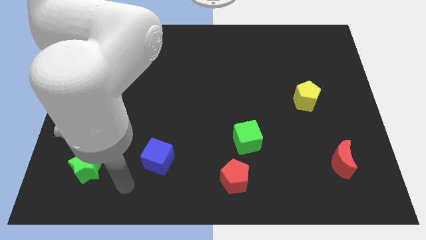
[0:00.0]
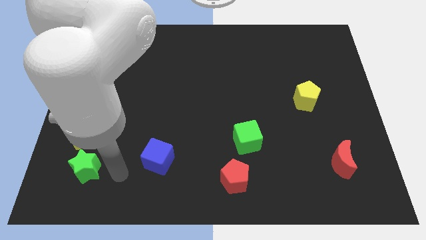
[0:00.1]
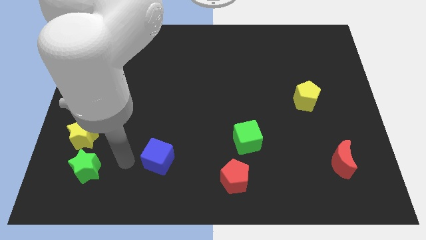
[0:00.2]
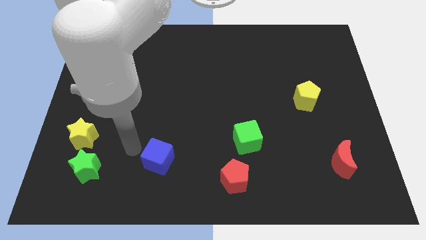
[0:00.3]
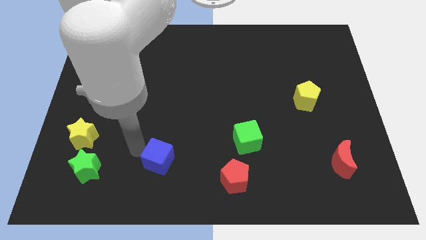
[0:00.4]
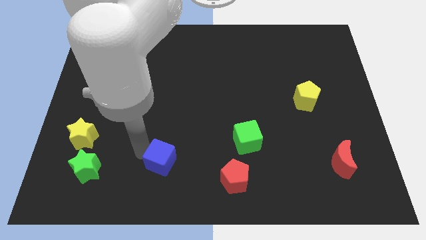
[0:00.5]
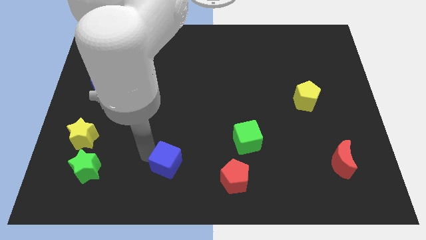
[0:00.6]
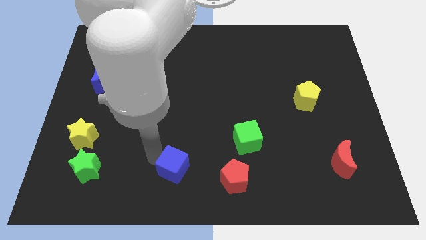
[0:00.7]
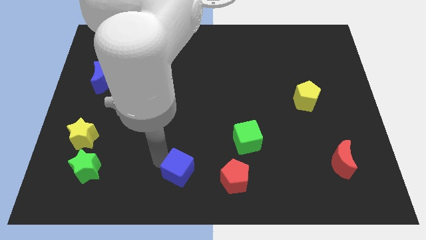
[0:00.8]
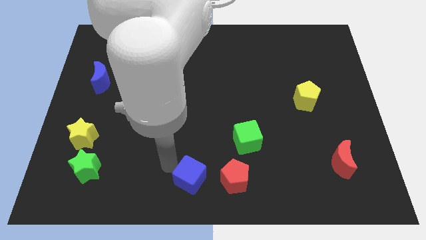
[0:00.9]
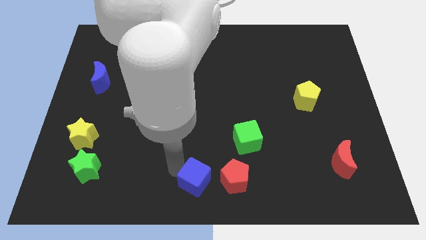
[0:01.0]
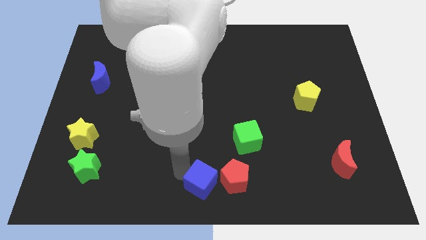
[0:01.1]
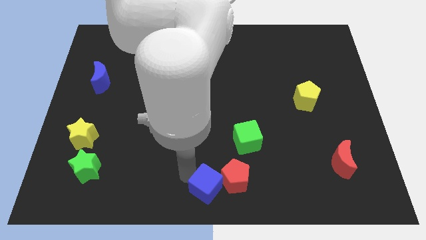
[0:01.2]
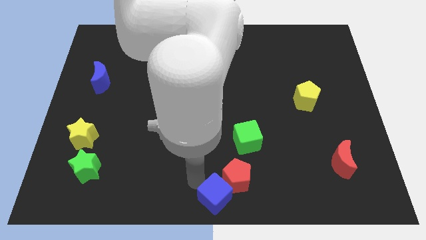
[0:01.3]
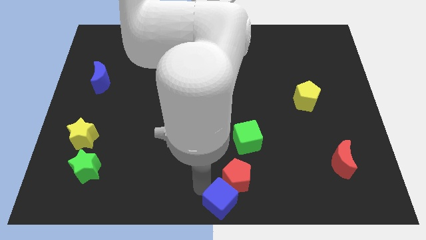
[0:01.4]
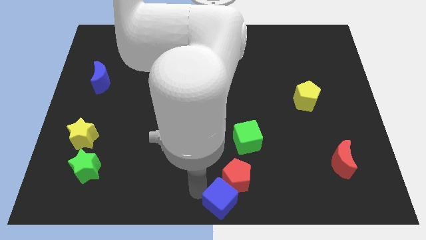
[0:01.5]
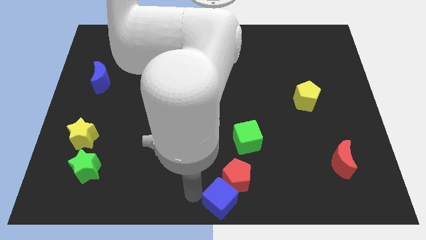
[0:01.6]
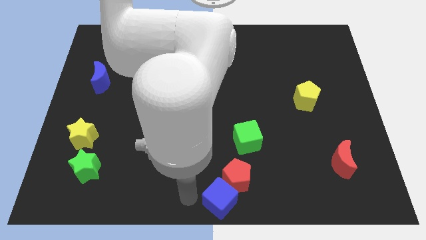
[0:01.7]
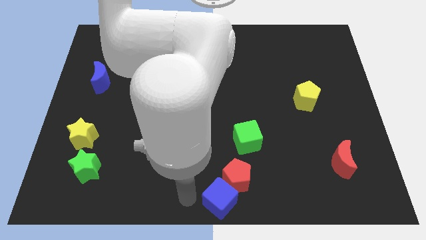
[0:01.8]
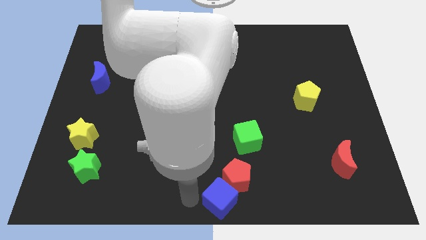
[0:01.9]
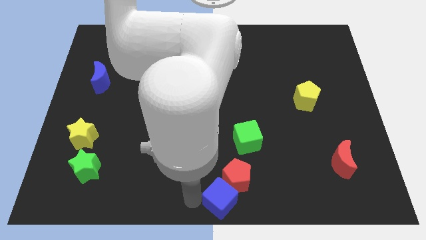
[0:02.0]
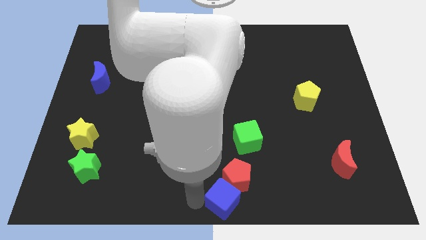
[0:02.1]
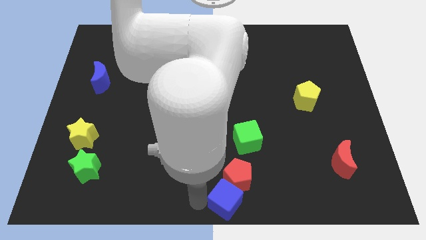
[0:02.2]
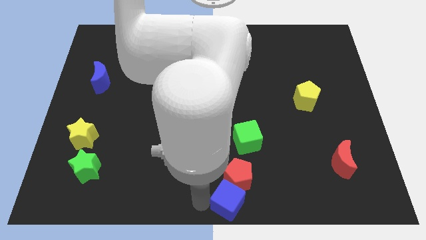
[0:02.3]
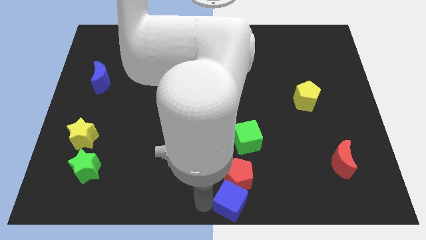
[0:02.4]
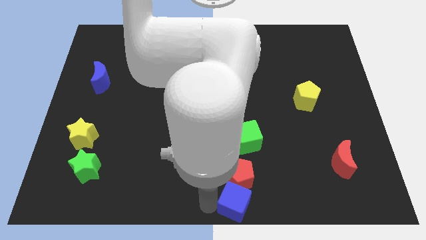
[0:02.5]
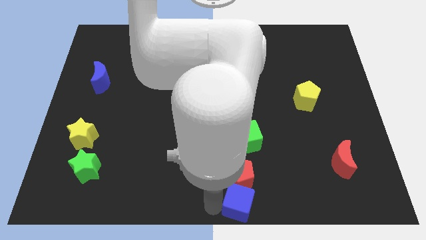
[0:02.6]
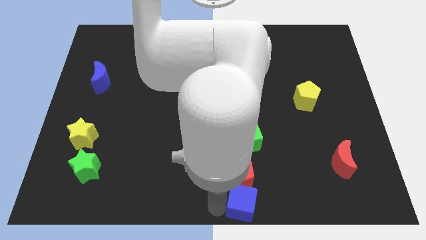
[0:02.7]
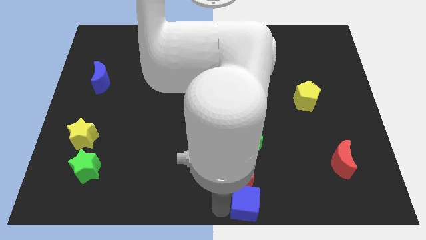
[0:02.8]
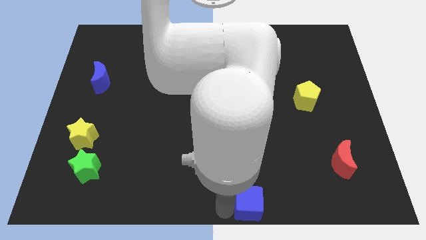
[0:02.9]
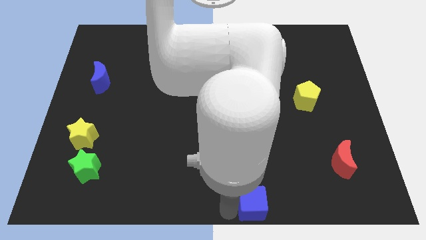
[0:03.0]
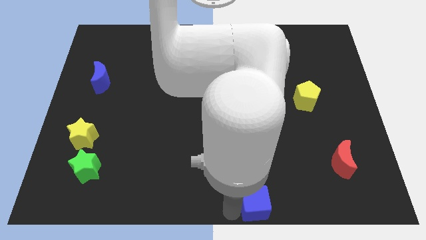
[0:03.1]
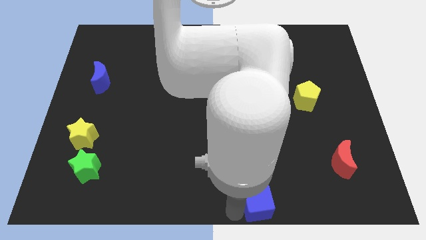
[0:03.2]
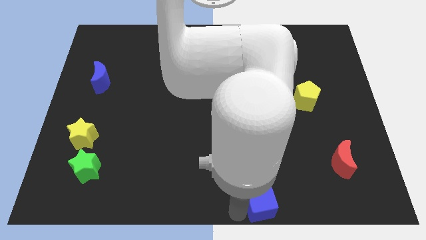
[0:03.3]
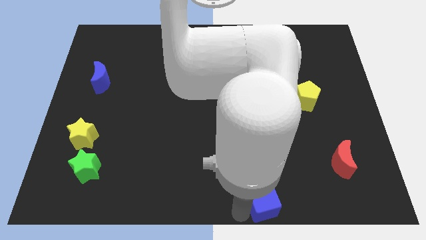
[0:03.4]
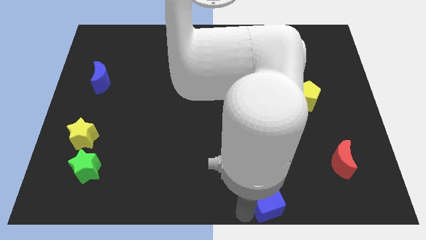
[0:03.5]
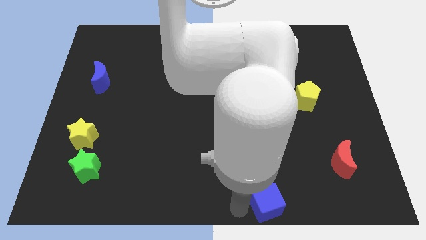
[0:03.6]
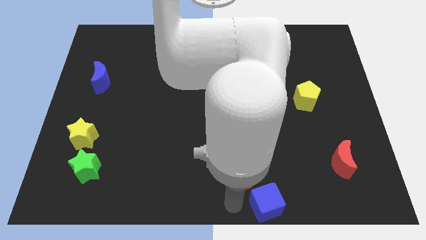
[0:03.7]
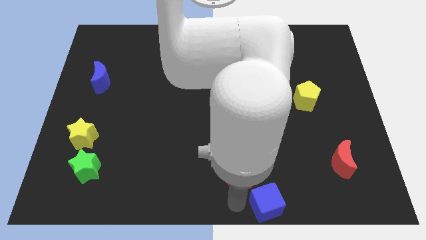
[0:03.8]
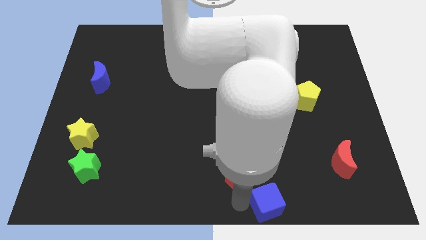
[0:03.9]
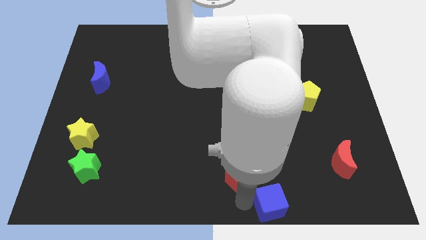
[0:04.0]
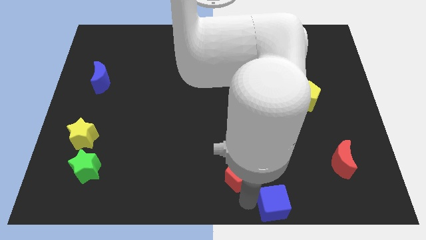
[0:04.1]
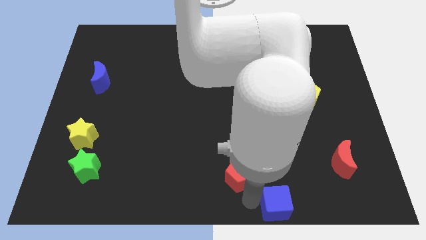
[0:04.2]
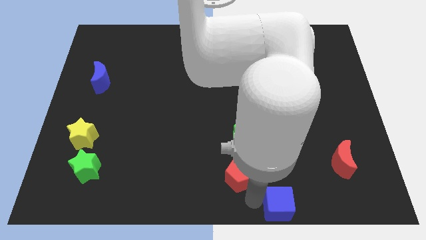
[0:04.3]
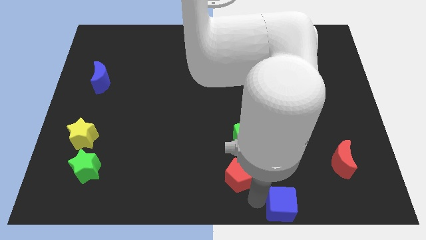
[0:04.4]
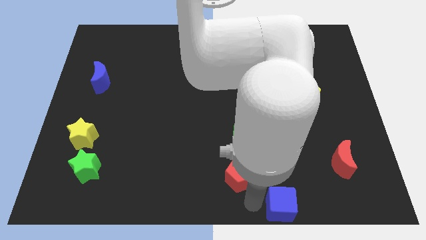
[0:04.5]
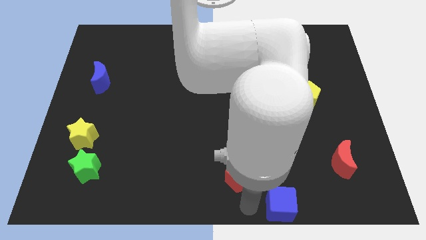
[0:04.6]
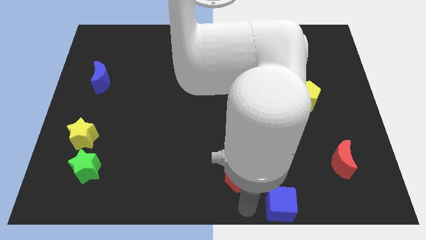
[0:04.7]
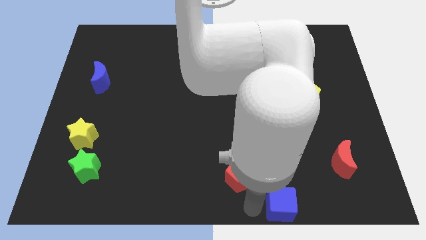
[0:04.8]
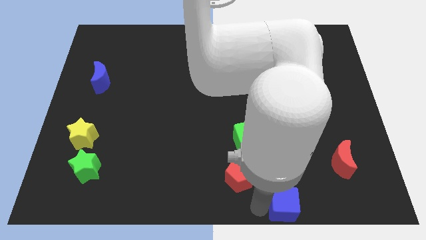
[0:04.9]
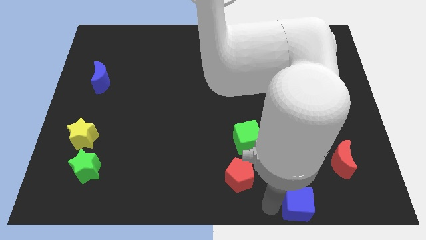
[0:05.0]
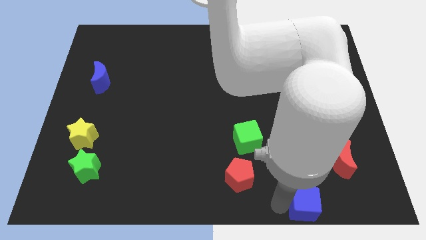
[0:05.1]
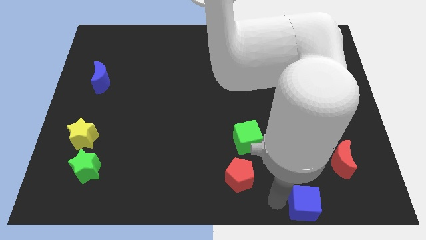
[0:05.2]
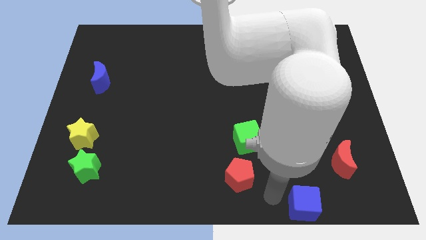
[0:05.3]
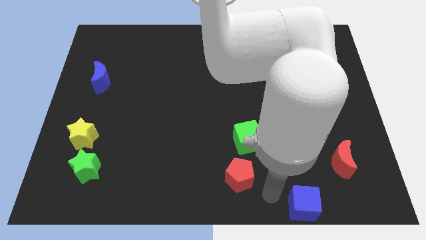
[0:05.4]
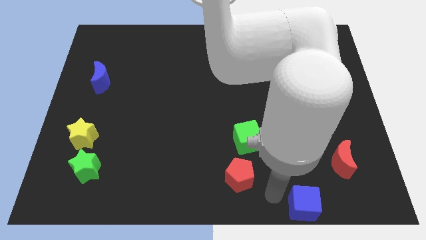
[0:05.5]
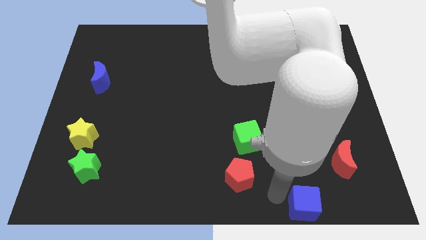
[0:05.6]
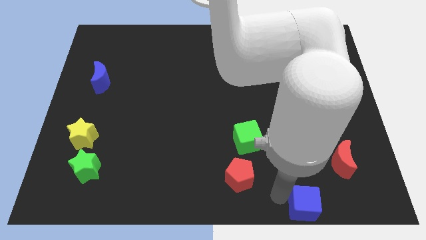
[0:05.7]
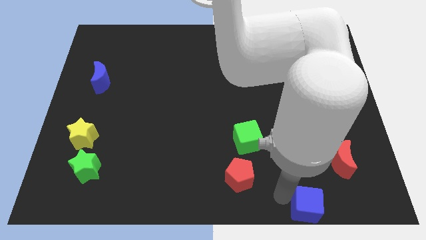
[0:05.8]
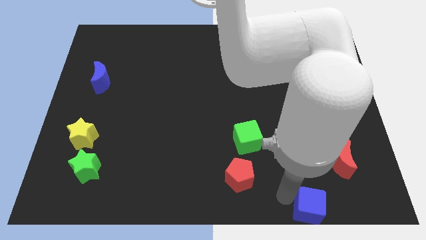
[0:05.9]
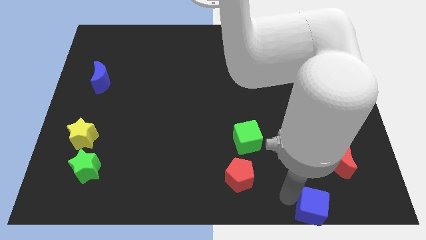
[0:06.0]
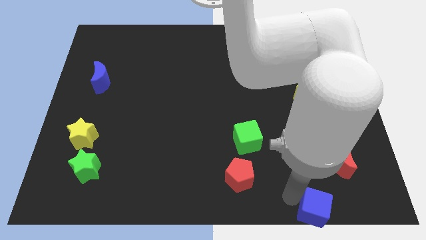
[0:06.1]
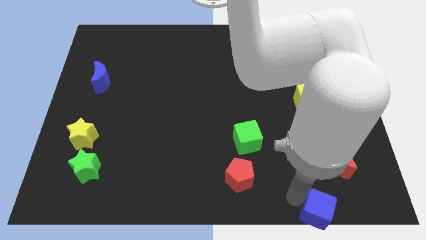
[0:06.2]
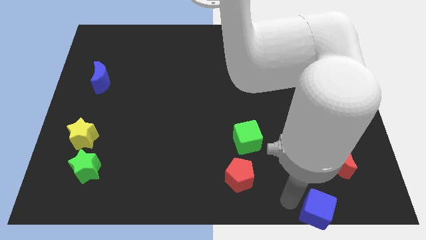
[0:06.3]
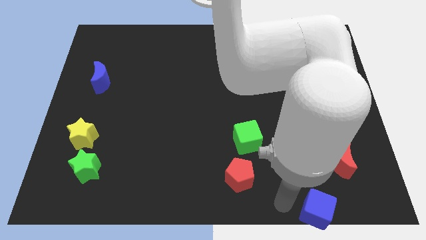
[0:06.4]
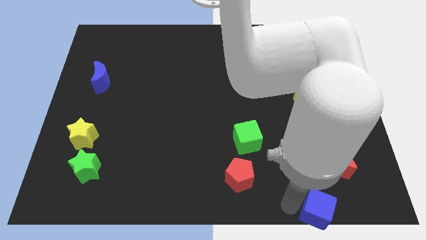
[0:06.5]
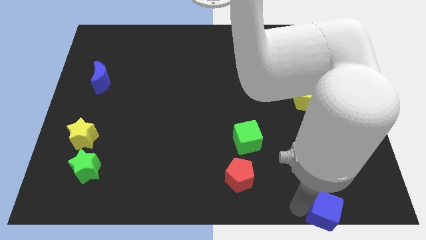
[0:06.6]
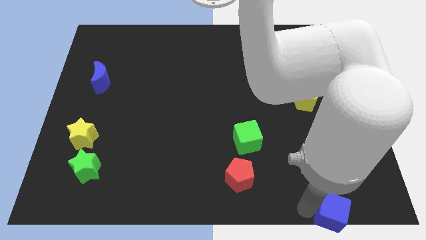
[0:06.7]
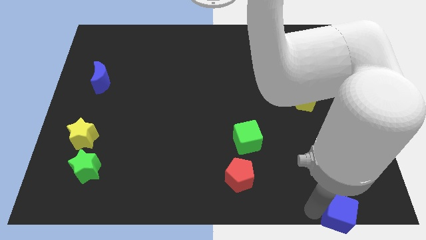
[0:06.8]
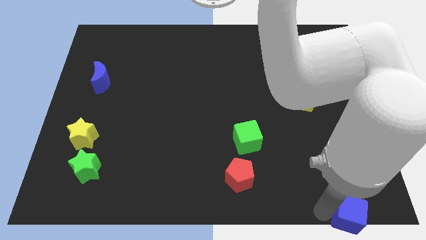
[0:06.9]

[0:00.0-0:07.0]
push the blue cube to the bottom right
